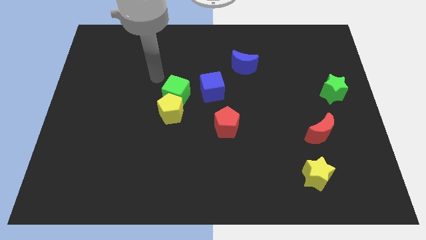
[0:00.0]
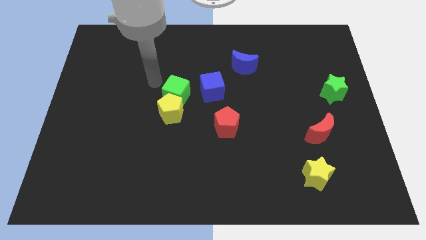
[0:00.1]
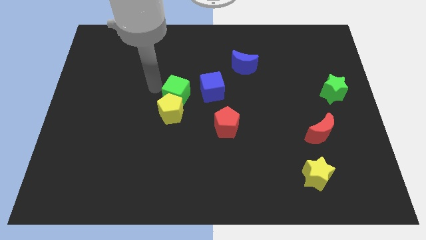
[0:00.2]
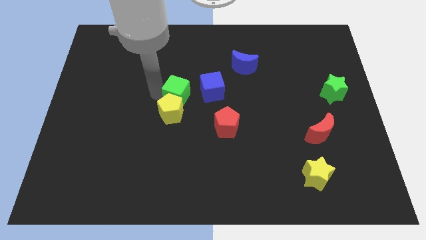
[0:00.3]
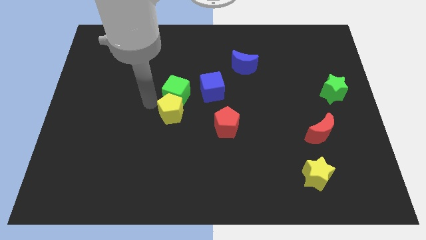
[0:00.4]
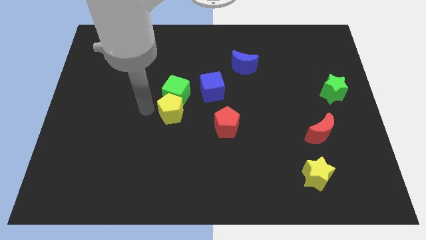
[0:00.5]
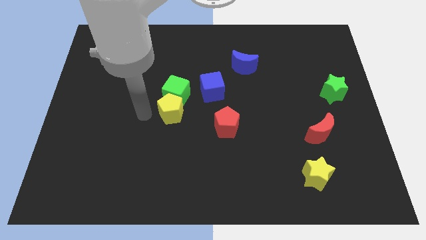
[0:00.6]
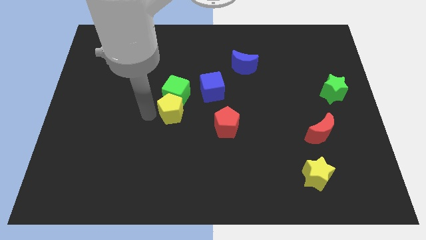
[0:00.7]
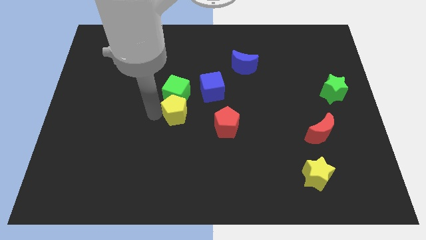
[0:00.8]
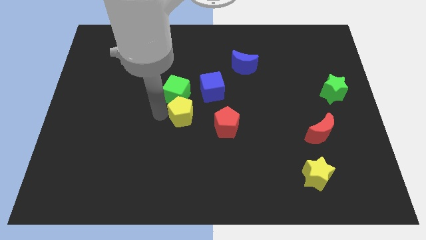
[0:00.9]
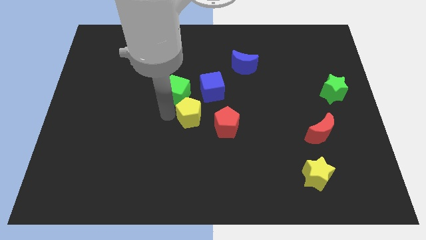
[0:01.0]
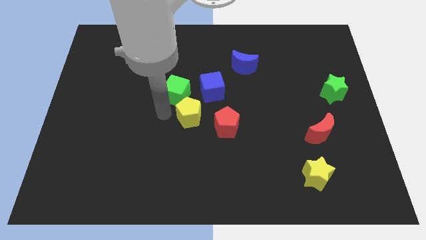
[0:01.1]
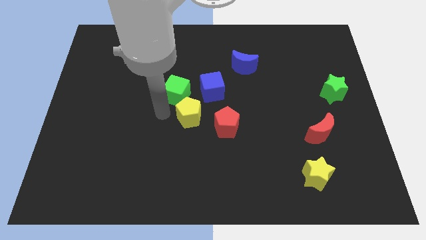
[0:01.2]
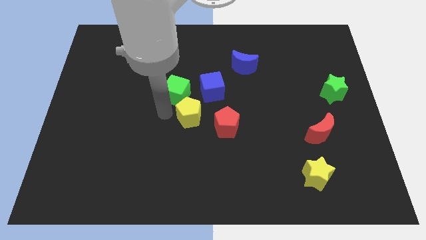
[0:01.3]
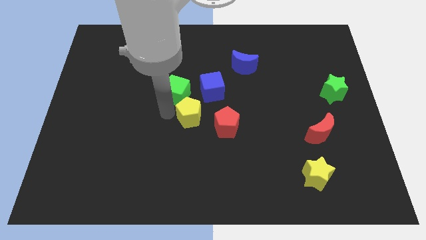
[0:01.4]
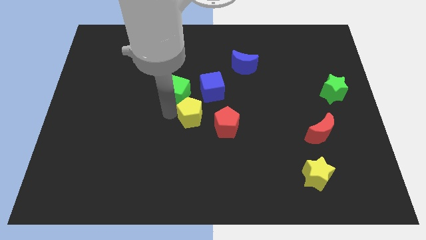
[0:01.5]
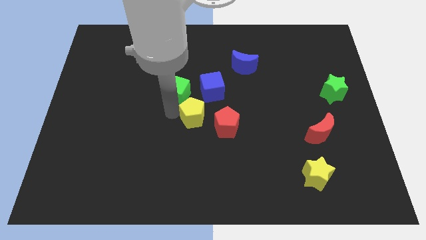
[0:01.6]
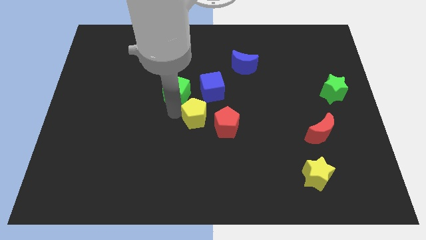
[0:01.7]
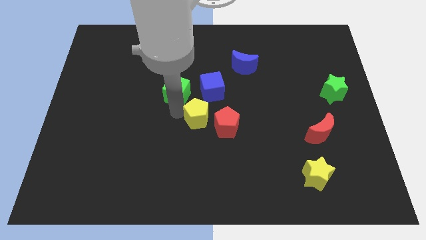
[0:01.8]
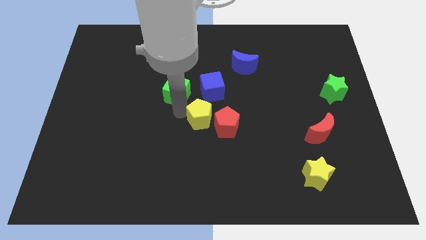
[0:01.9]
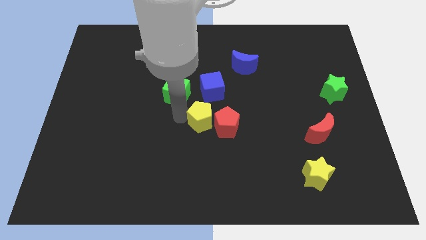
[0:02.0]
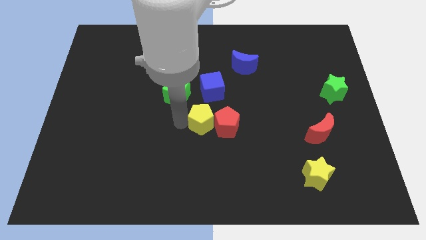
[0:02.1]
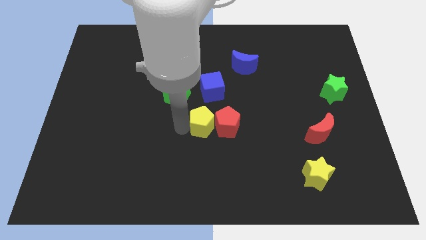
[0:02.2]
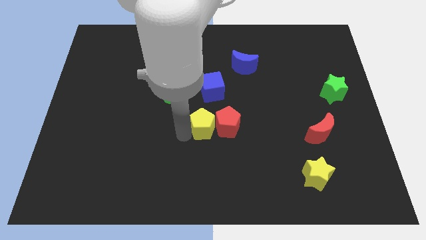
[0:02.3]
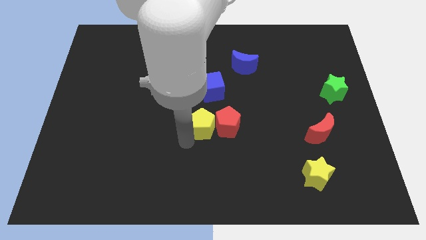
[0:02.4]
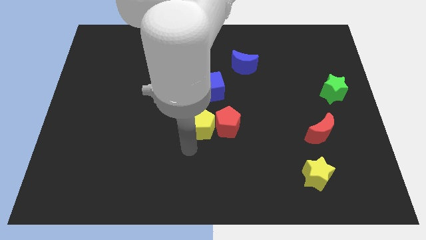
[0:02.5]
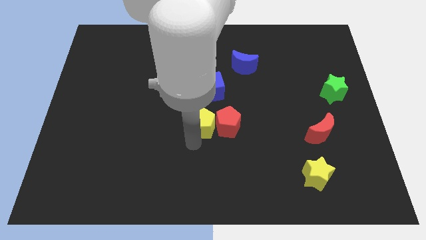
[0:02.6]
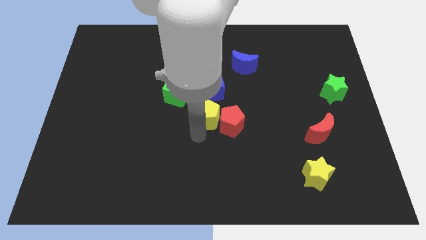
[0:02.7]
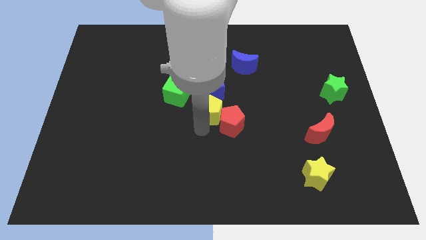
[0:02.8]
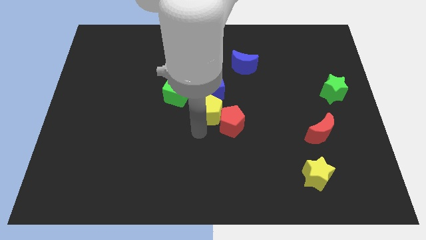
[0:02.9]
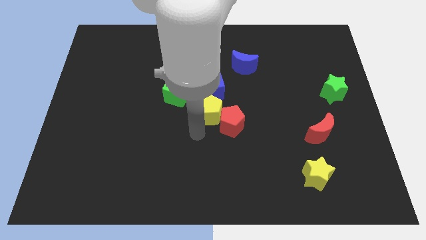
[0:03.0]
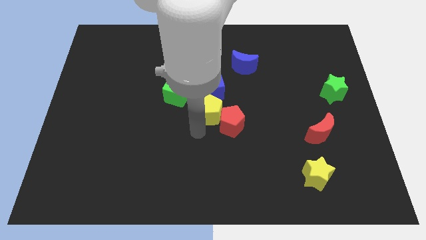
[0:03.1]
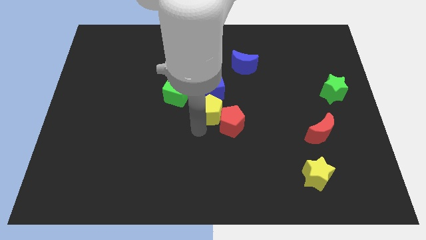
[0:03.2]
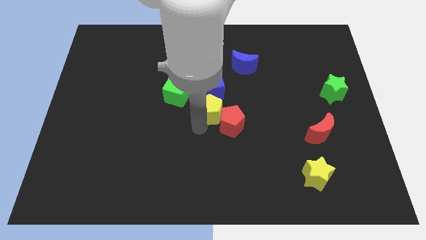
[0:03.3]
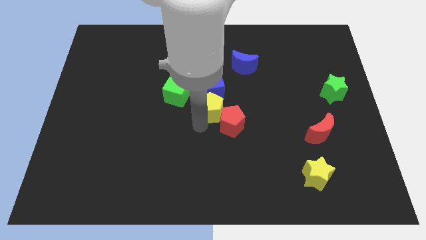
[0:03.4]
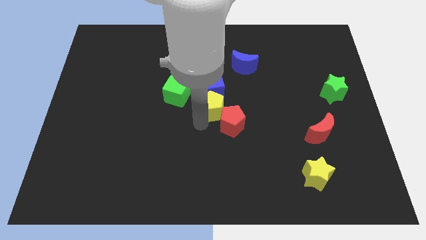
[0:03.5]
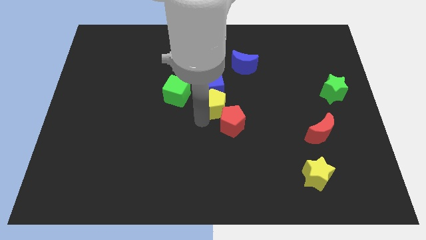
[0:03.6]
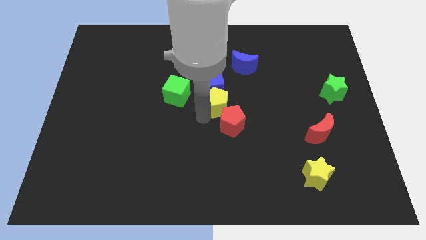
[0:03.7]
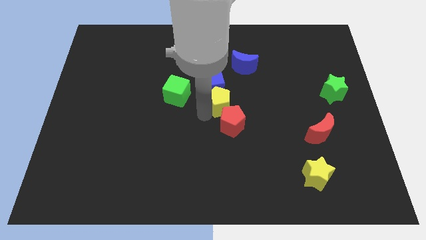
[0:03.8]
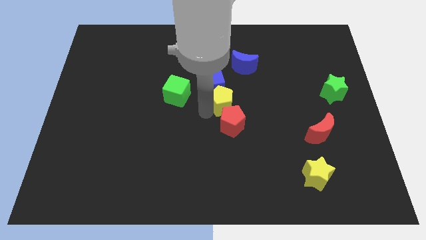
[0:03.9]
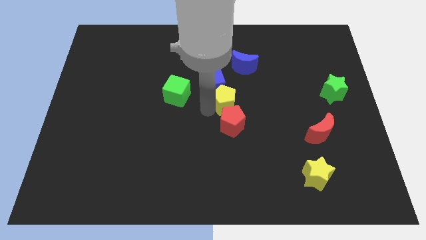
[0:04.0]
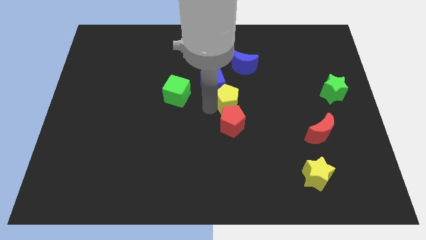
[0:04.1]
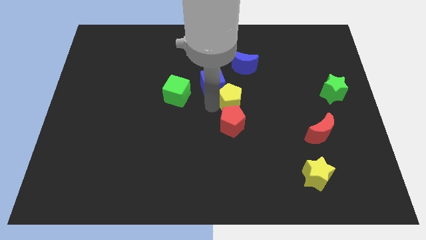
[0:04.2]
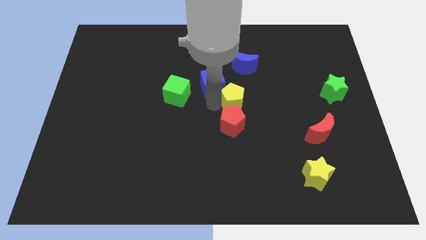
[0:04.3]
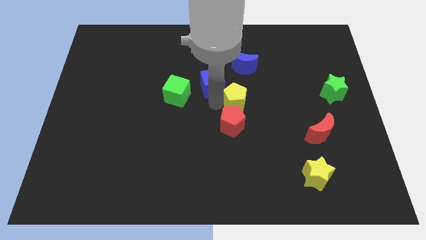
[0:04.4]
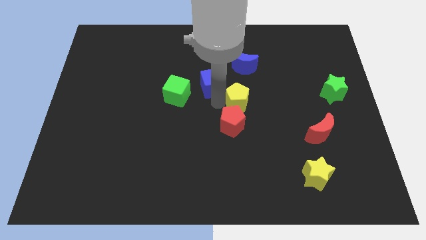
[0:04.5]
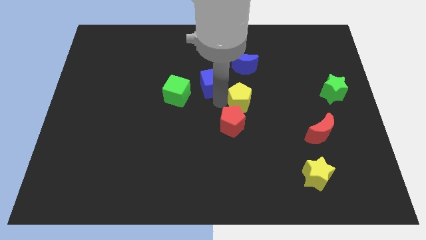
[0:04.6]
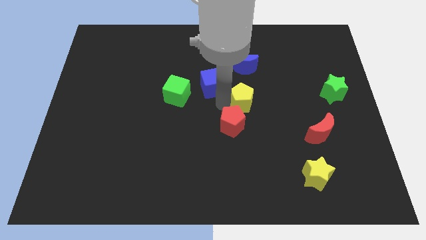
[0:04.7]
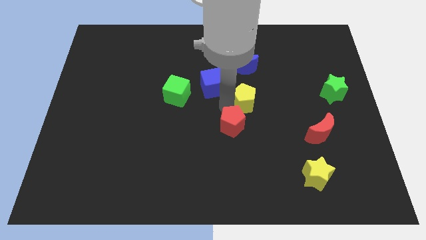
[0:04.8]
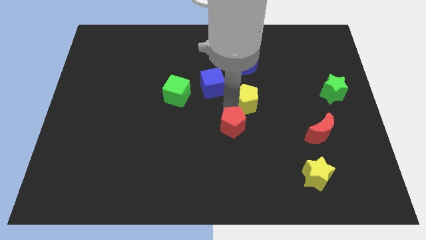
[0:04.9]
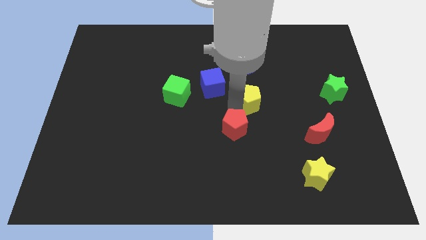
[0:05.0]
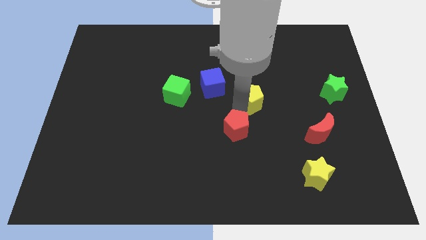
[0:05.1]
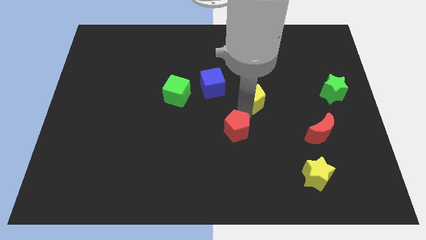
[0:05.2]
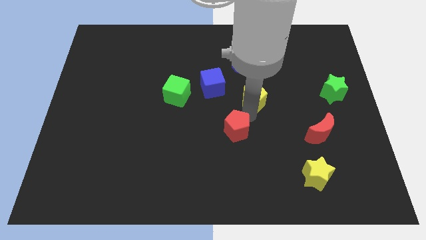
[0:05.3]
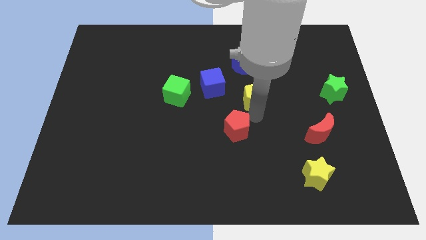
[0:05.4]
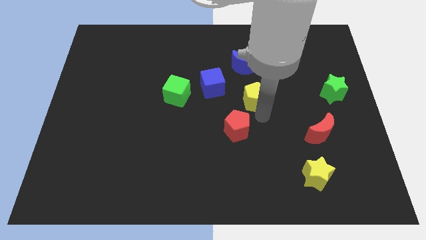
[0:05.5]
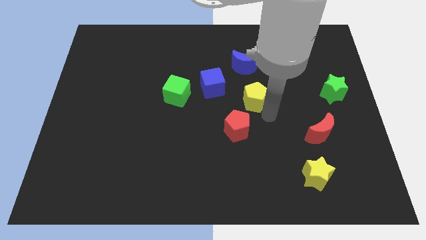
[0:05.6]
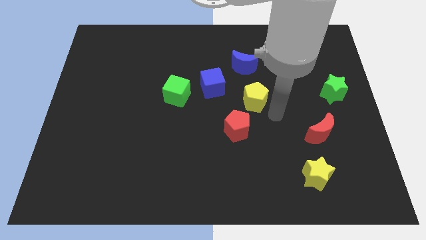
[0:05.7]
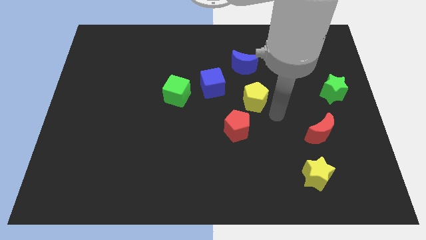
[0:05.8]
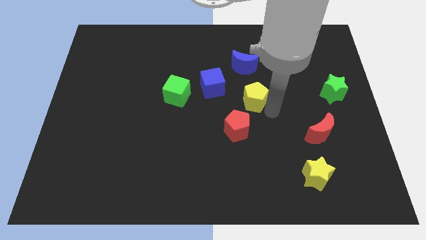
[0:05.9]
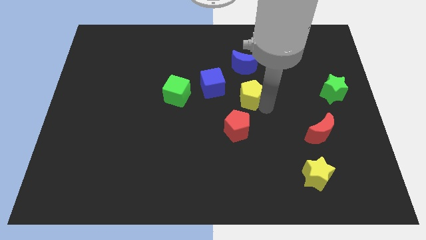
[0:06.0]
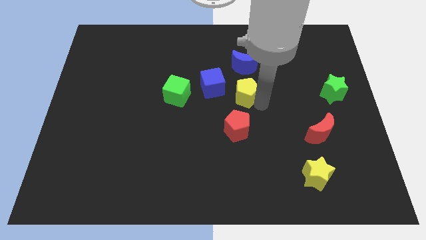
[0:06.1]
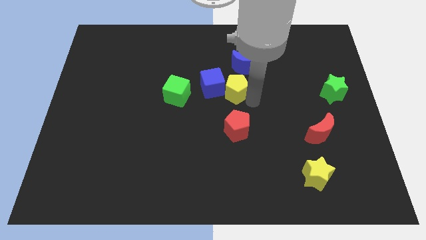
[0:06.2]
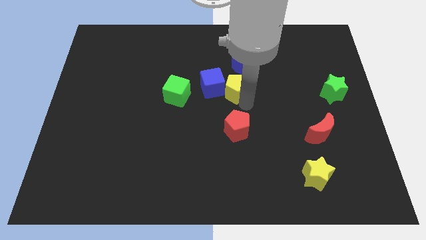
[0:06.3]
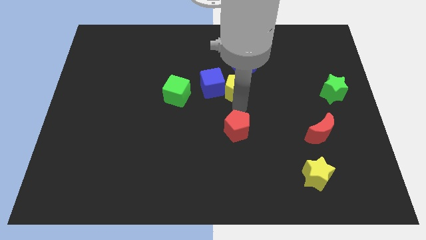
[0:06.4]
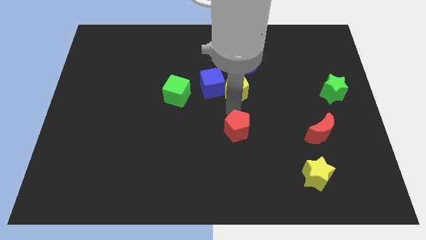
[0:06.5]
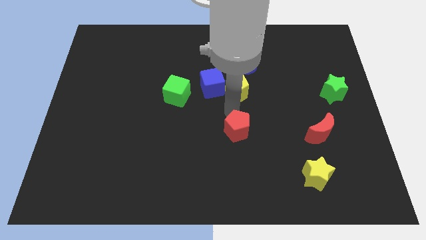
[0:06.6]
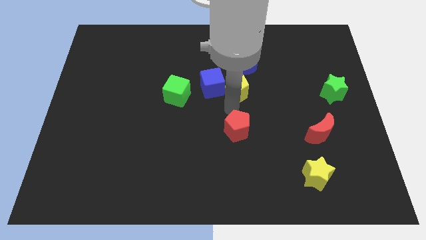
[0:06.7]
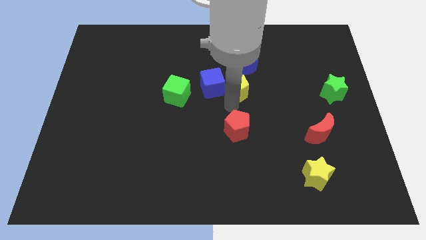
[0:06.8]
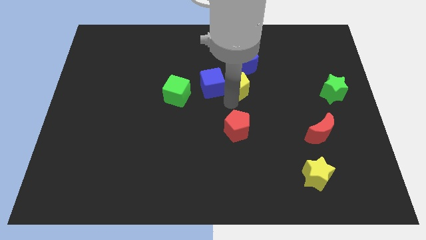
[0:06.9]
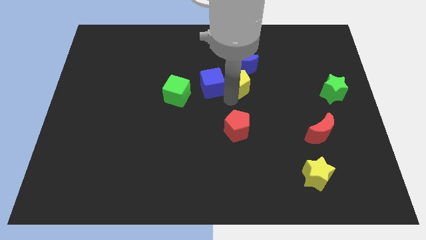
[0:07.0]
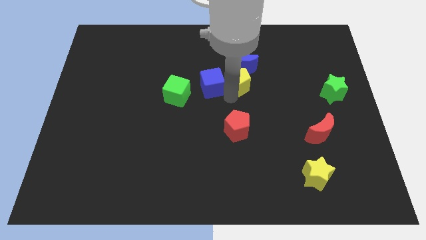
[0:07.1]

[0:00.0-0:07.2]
push the yellow pentagon close to the blue moon

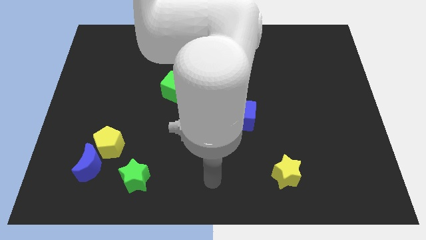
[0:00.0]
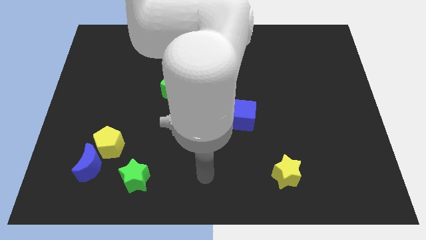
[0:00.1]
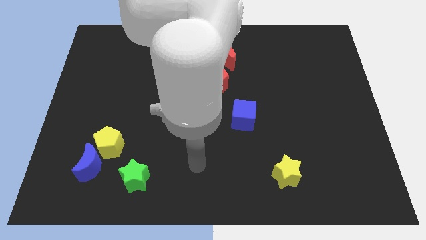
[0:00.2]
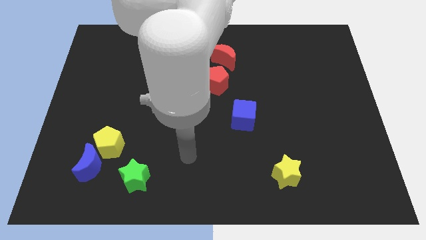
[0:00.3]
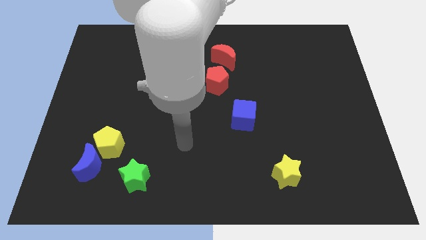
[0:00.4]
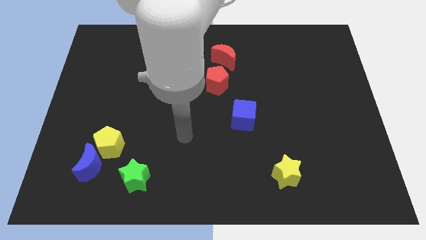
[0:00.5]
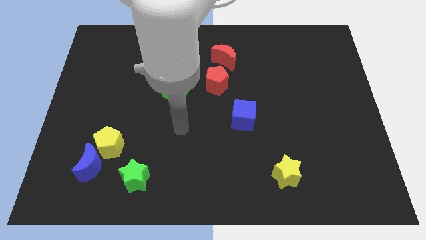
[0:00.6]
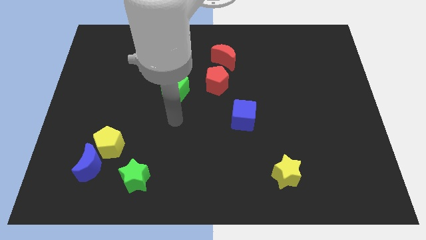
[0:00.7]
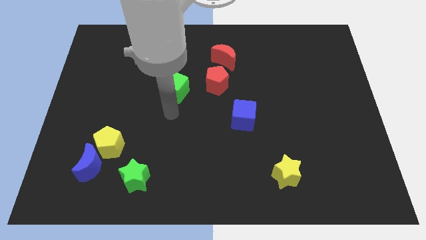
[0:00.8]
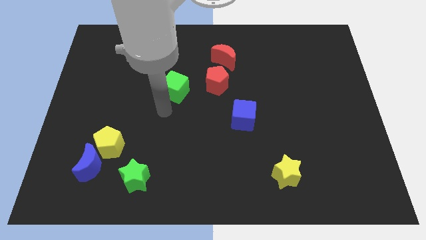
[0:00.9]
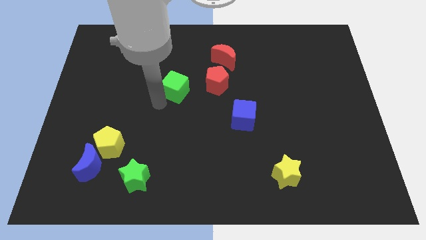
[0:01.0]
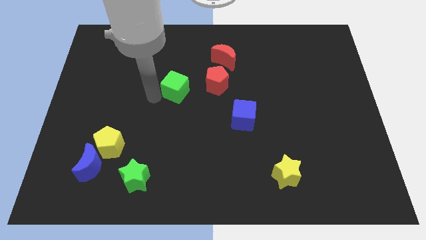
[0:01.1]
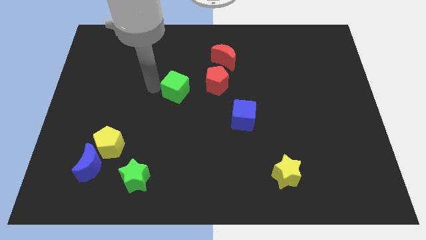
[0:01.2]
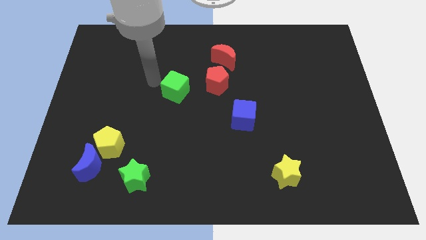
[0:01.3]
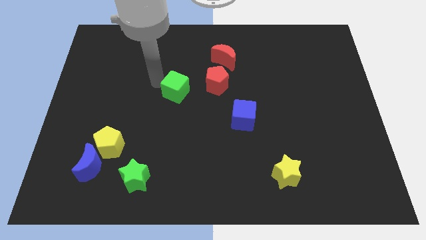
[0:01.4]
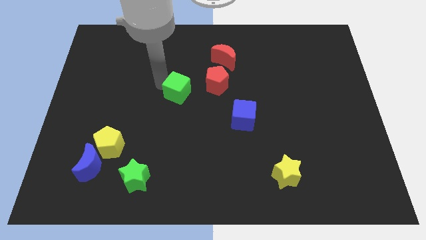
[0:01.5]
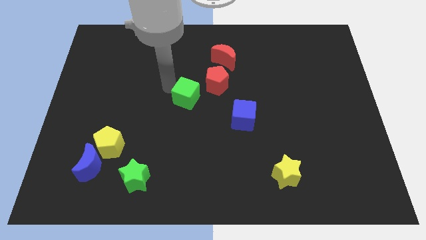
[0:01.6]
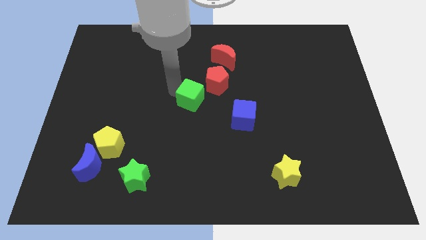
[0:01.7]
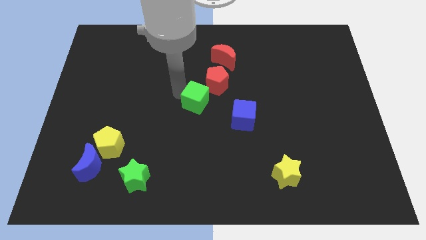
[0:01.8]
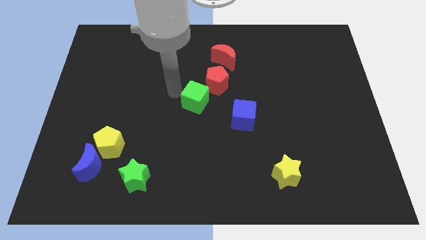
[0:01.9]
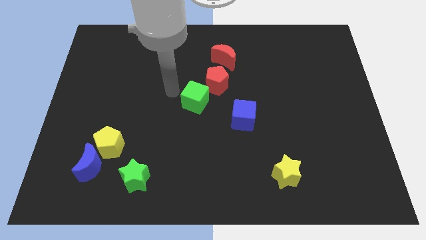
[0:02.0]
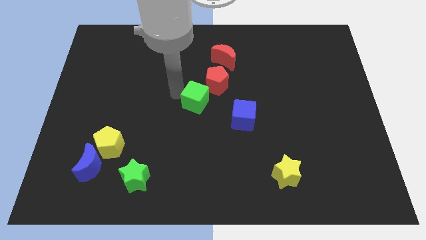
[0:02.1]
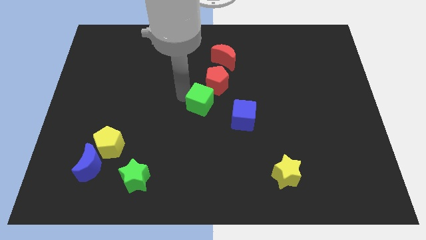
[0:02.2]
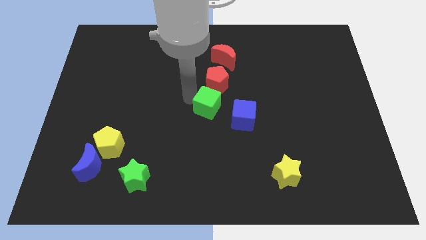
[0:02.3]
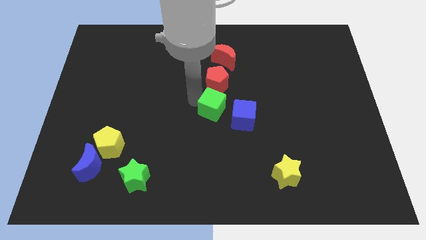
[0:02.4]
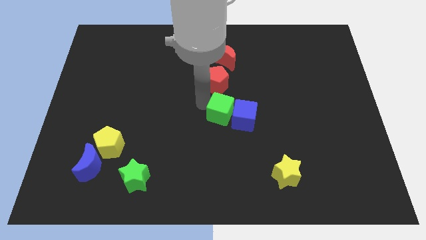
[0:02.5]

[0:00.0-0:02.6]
push the green cube close to the blue cube
